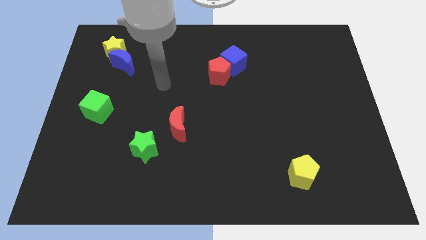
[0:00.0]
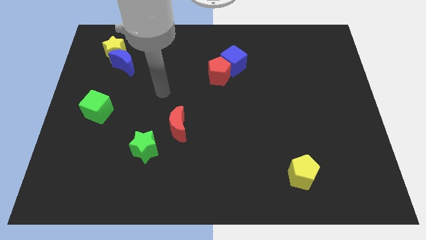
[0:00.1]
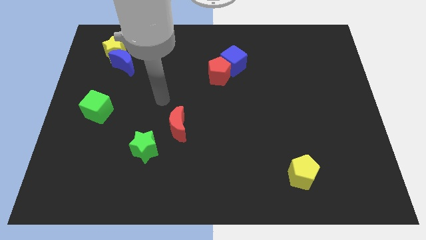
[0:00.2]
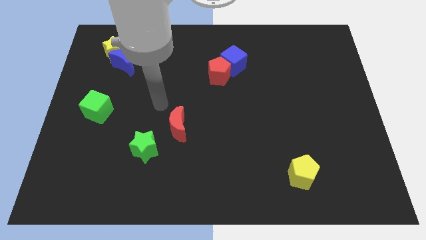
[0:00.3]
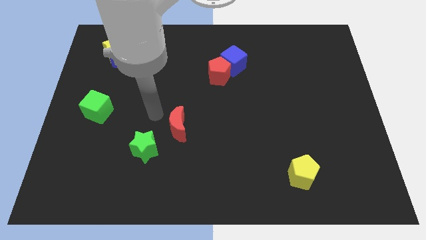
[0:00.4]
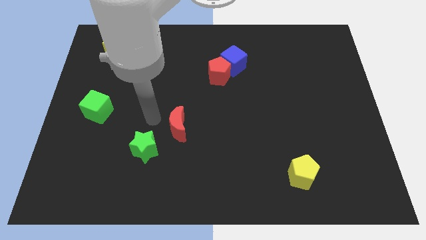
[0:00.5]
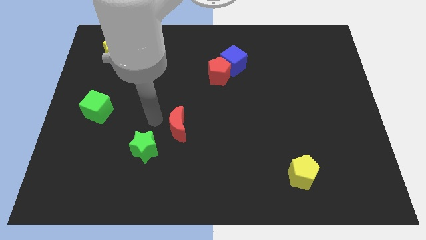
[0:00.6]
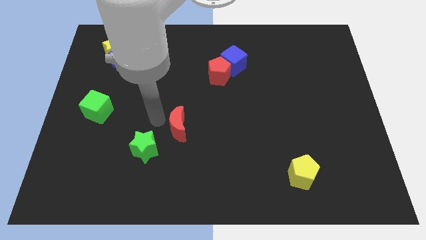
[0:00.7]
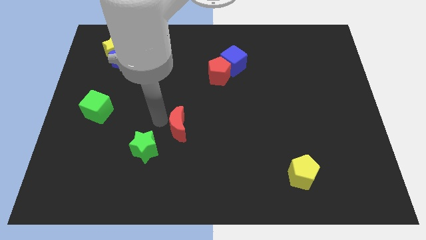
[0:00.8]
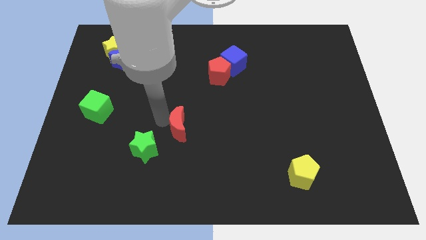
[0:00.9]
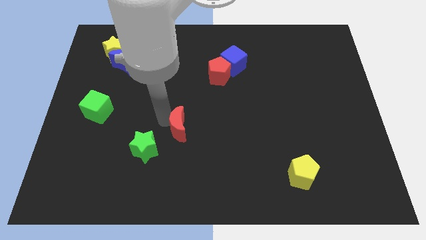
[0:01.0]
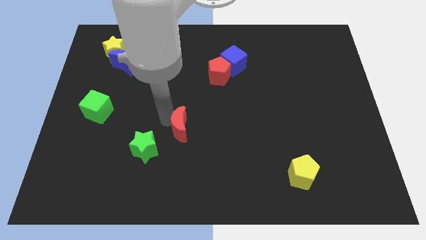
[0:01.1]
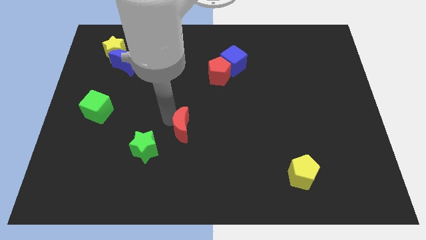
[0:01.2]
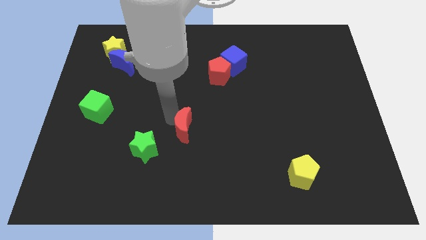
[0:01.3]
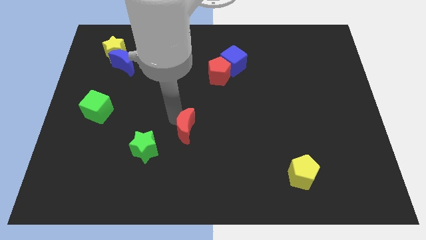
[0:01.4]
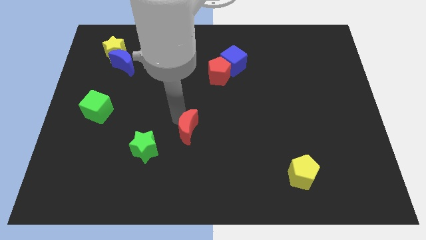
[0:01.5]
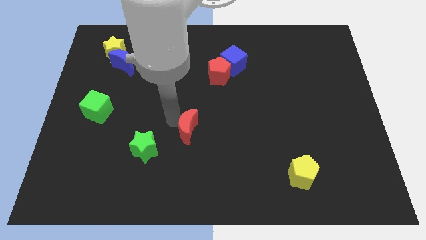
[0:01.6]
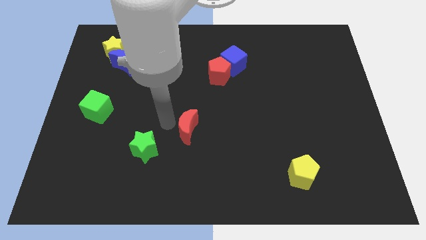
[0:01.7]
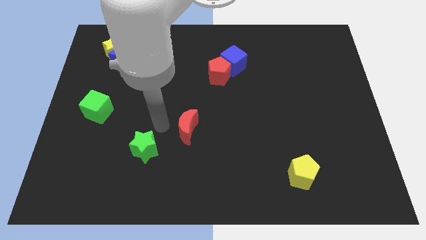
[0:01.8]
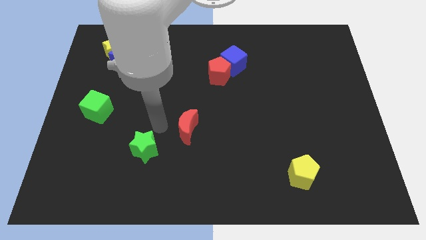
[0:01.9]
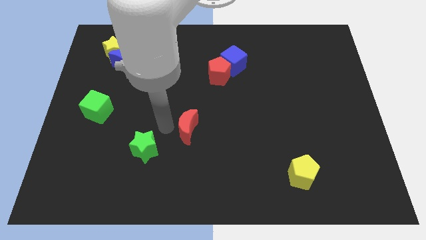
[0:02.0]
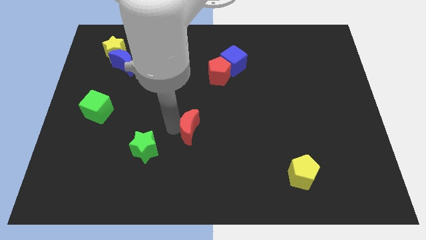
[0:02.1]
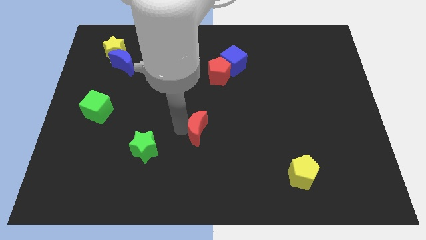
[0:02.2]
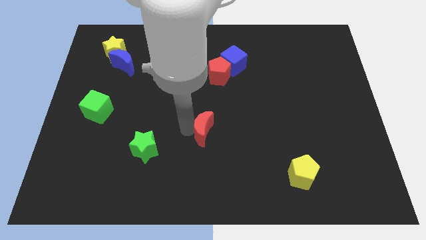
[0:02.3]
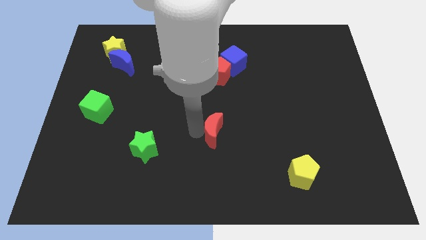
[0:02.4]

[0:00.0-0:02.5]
move the red moon slightly to the right

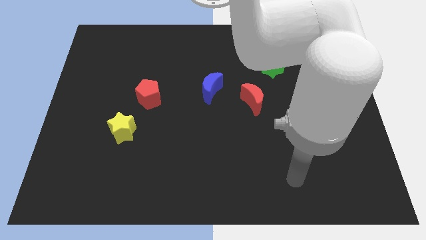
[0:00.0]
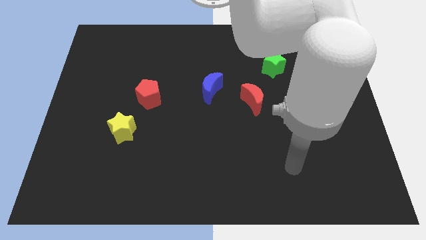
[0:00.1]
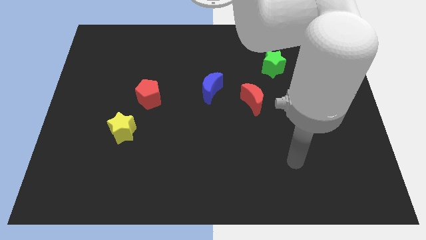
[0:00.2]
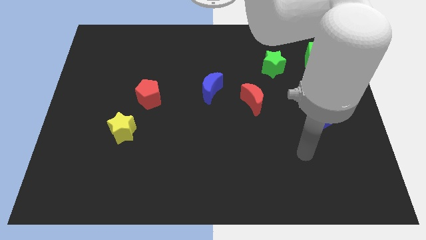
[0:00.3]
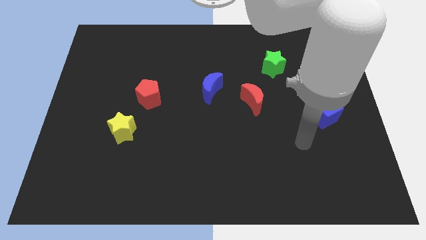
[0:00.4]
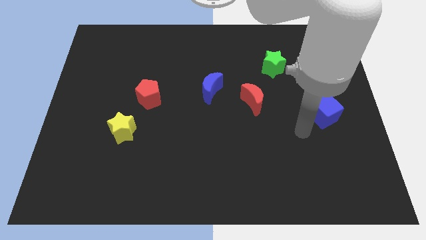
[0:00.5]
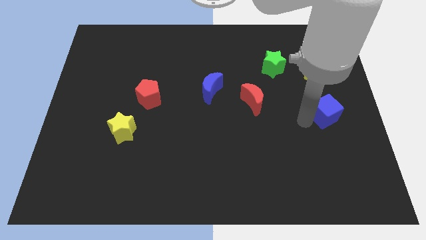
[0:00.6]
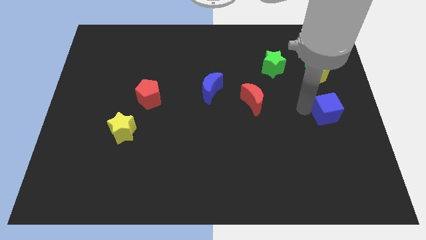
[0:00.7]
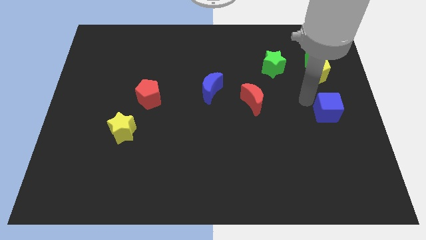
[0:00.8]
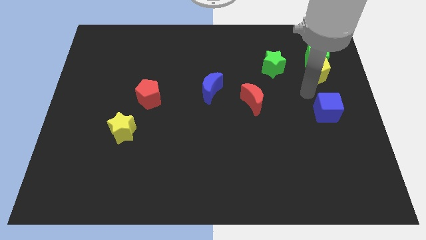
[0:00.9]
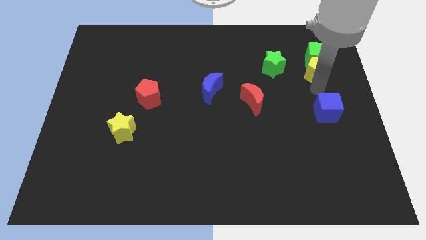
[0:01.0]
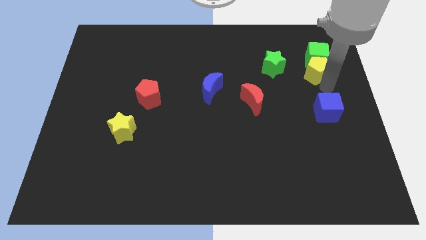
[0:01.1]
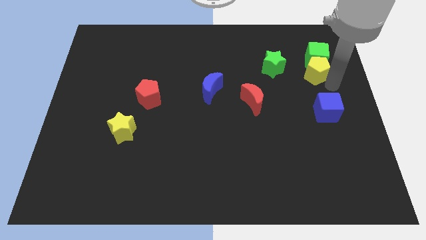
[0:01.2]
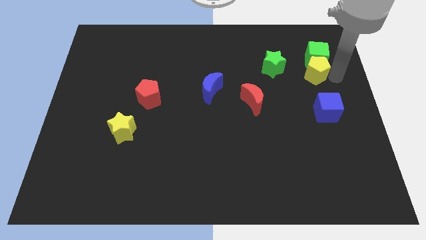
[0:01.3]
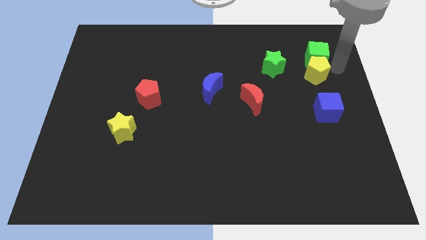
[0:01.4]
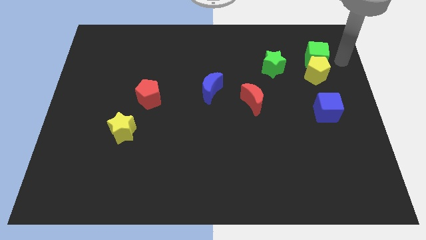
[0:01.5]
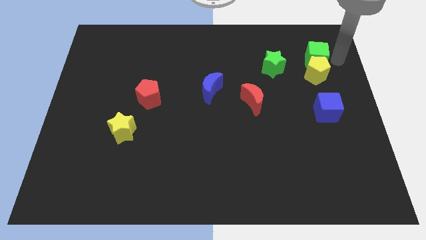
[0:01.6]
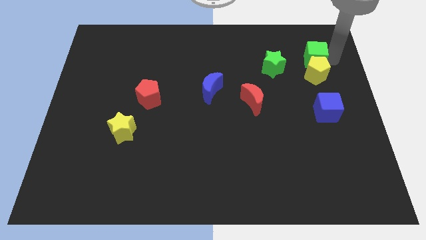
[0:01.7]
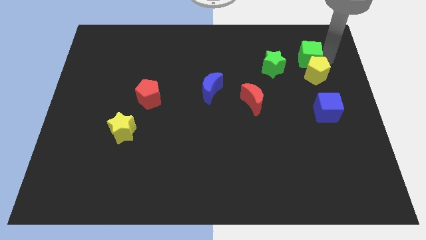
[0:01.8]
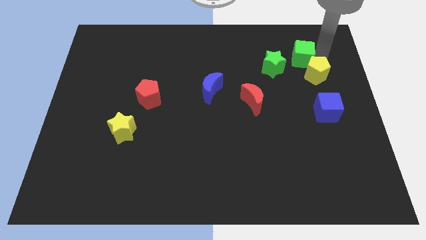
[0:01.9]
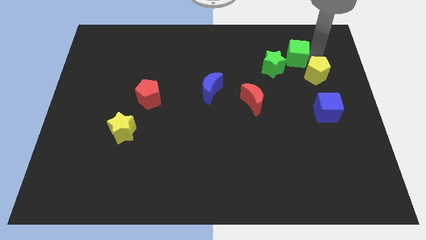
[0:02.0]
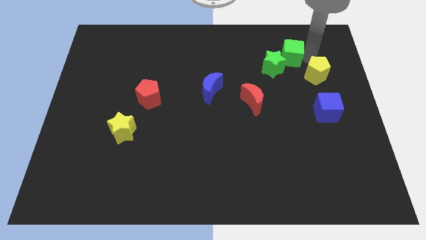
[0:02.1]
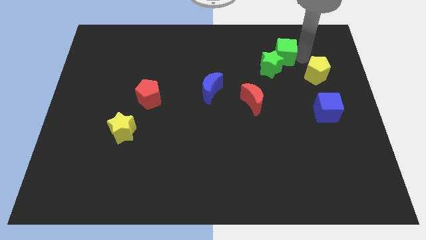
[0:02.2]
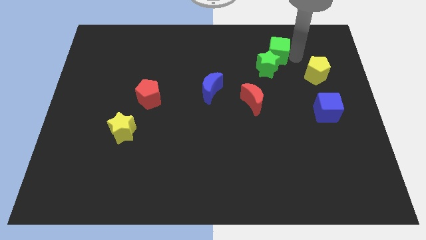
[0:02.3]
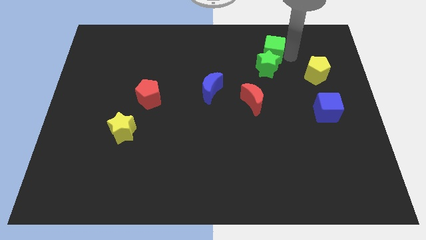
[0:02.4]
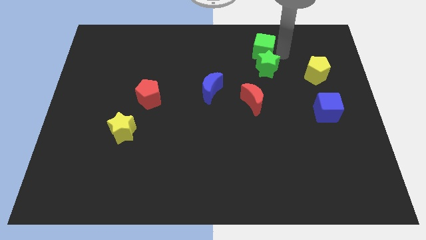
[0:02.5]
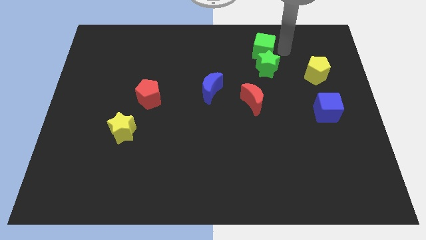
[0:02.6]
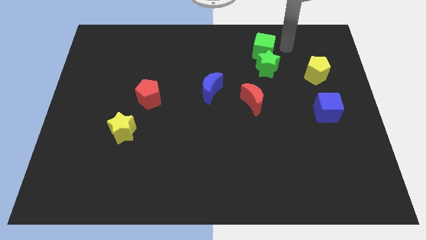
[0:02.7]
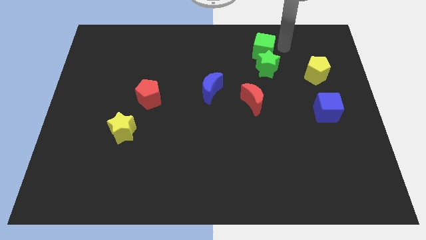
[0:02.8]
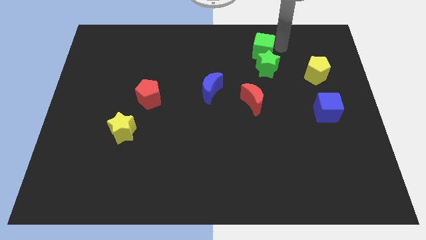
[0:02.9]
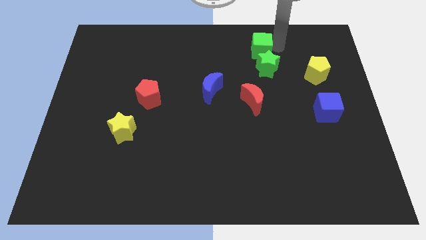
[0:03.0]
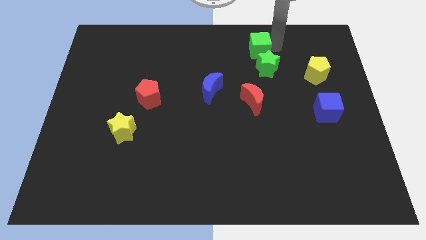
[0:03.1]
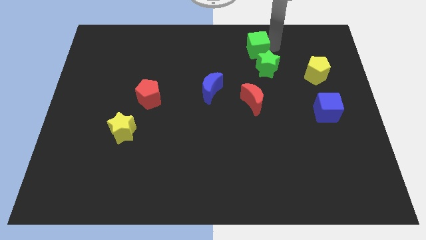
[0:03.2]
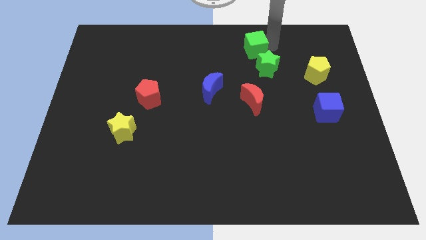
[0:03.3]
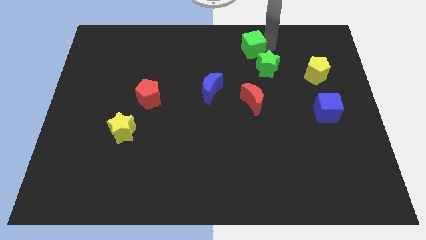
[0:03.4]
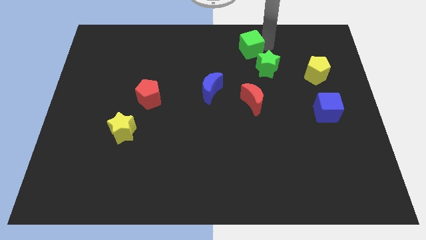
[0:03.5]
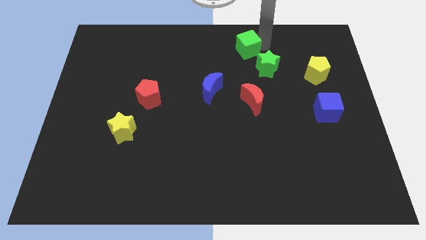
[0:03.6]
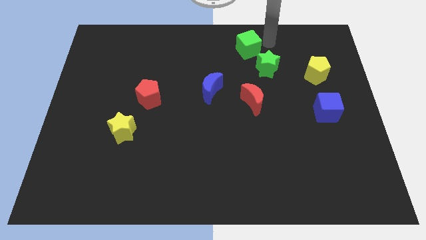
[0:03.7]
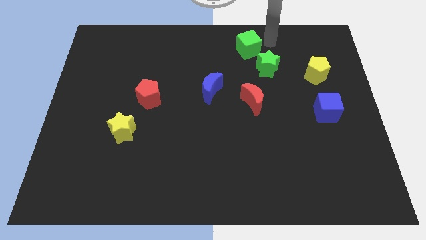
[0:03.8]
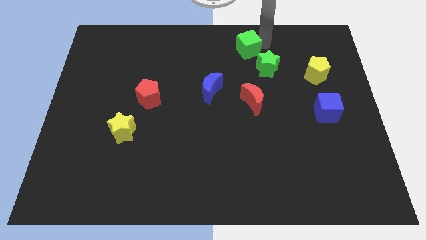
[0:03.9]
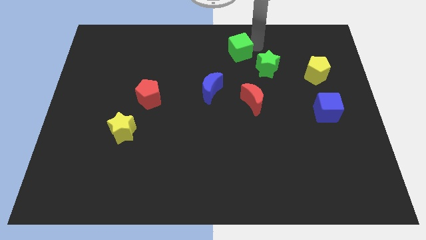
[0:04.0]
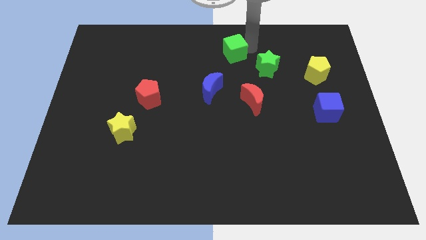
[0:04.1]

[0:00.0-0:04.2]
move the green cube to the left

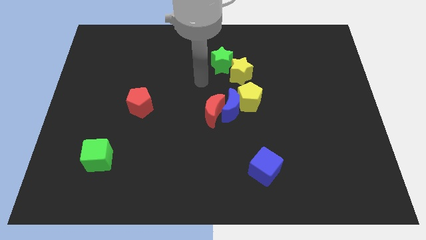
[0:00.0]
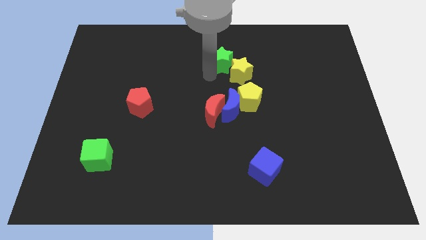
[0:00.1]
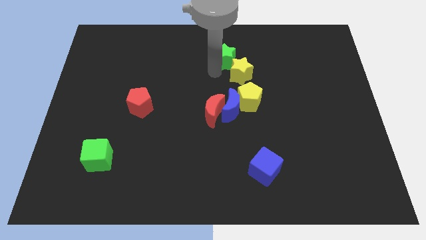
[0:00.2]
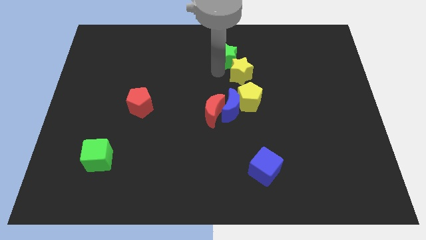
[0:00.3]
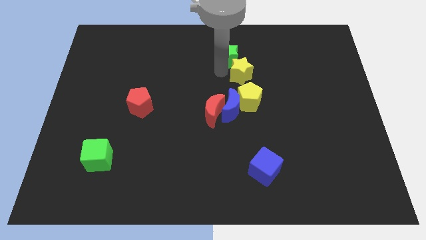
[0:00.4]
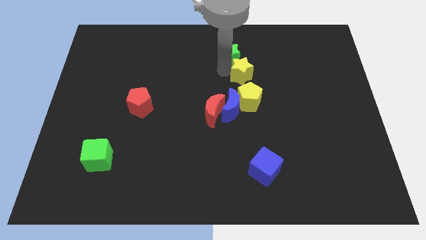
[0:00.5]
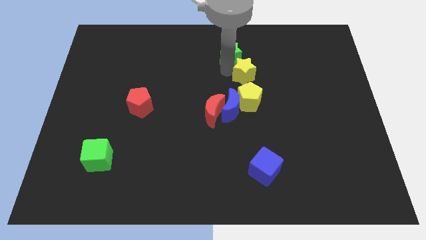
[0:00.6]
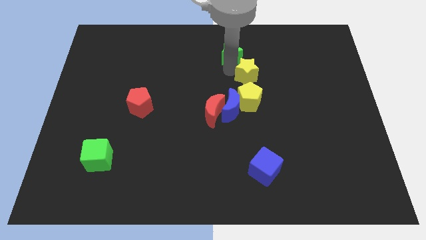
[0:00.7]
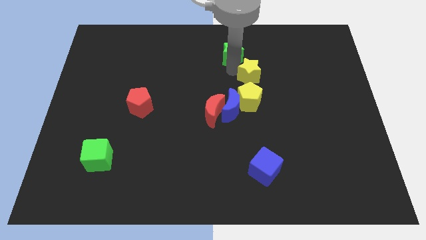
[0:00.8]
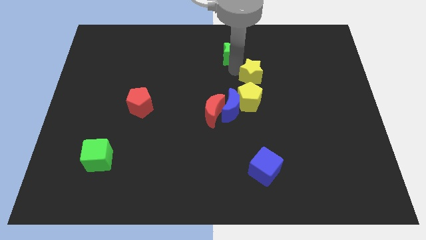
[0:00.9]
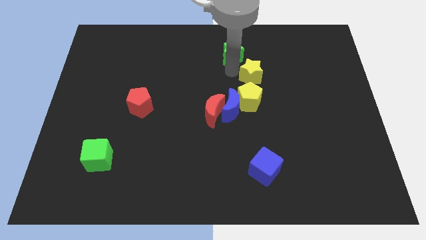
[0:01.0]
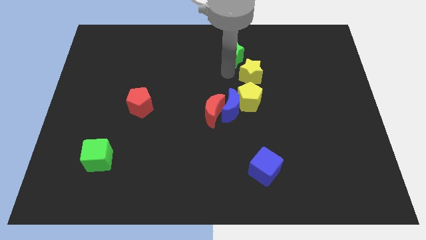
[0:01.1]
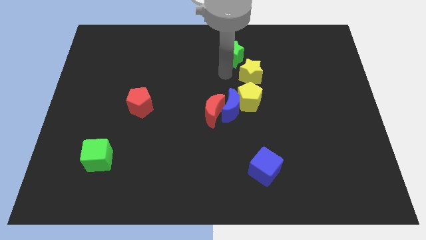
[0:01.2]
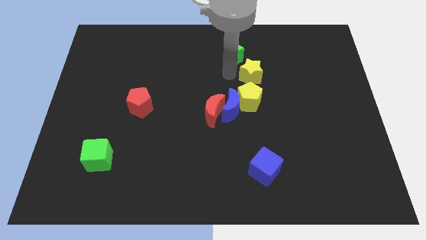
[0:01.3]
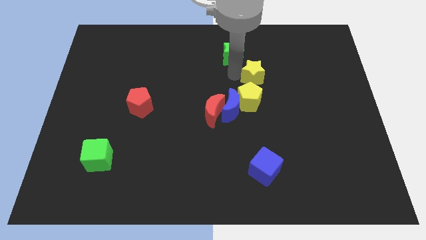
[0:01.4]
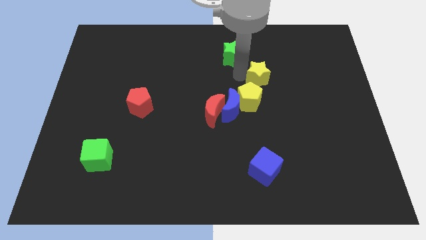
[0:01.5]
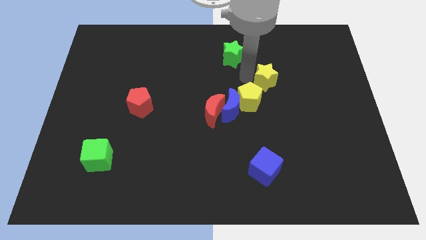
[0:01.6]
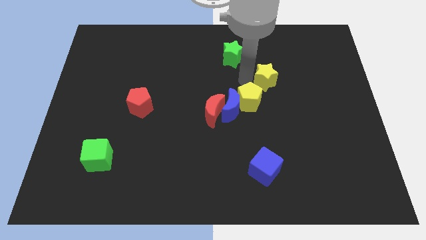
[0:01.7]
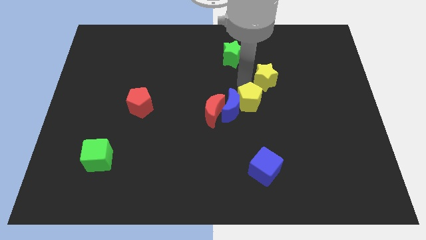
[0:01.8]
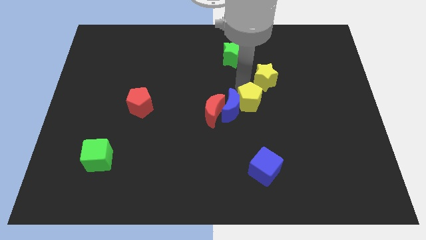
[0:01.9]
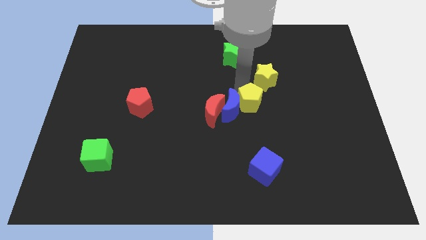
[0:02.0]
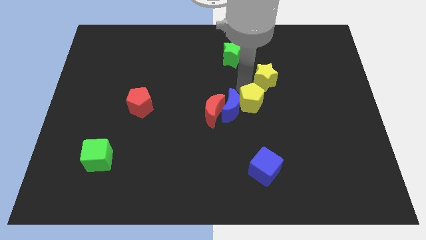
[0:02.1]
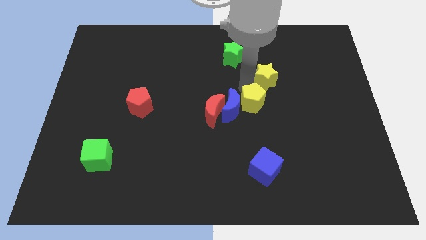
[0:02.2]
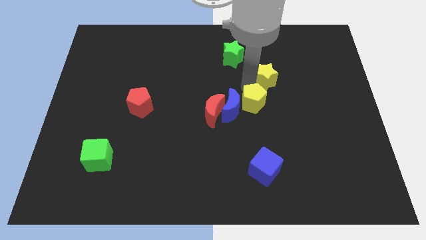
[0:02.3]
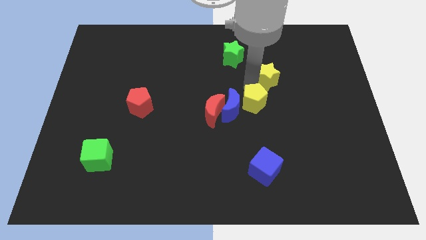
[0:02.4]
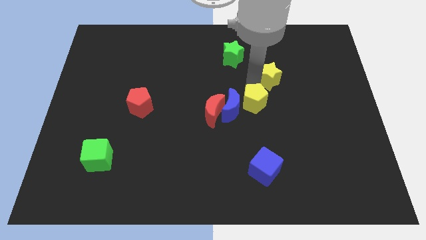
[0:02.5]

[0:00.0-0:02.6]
slightly push the yellow star to the right
